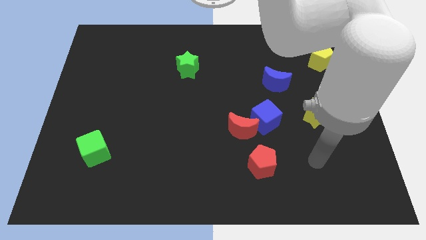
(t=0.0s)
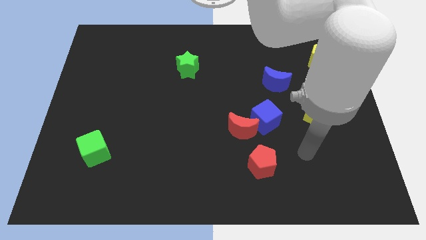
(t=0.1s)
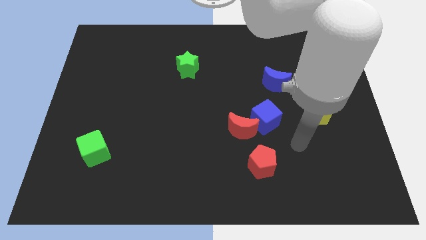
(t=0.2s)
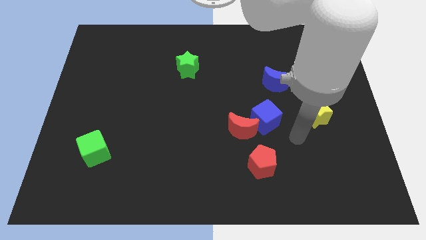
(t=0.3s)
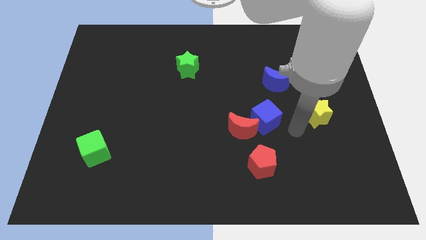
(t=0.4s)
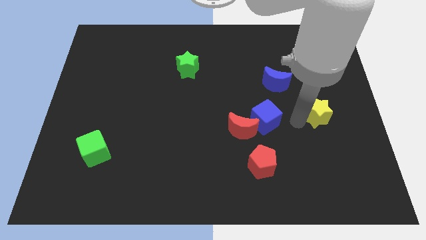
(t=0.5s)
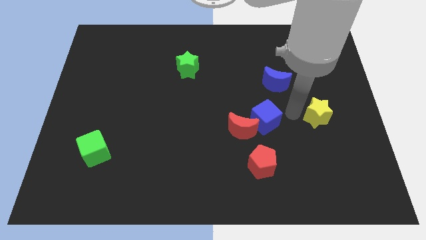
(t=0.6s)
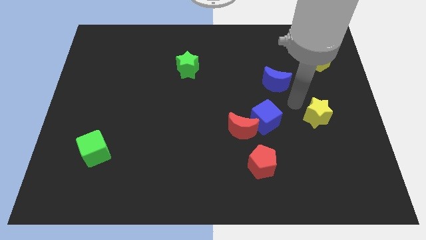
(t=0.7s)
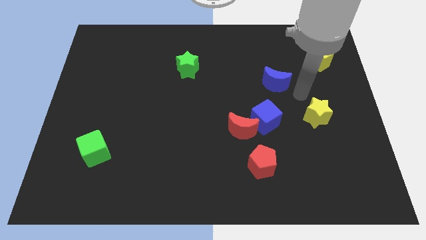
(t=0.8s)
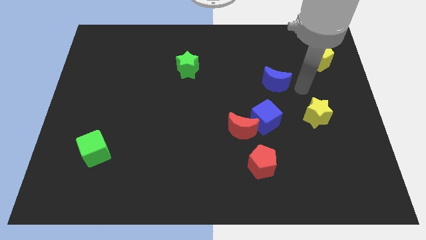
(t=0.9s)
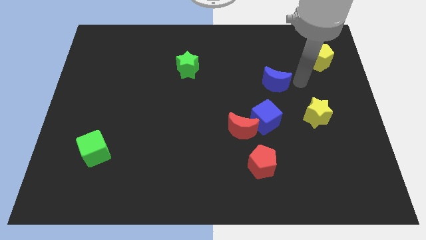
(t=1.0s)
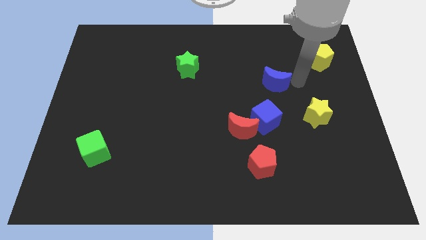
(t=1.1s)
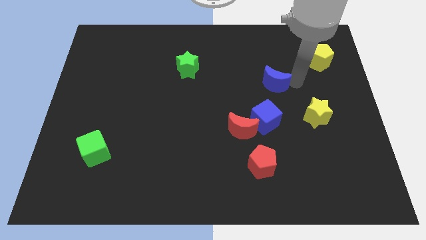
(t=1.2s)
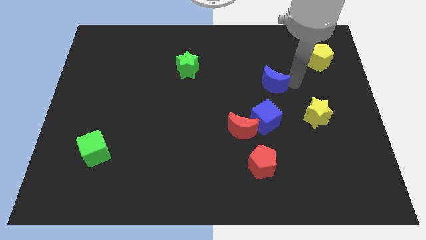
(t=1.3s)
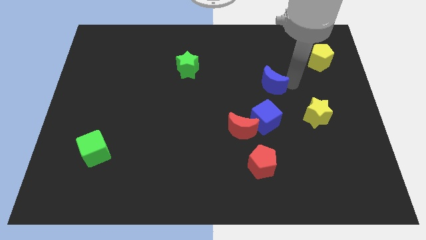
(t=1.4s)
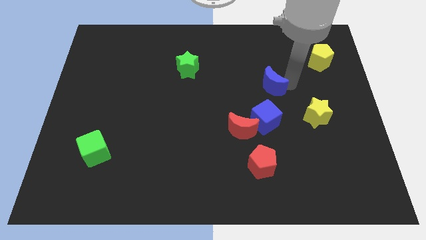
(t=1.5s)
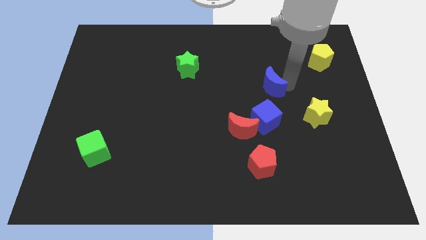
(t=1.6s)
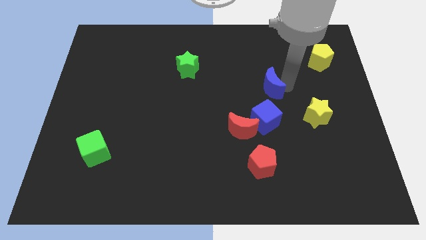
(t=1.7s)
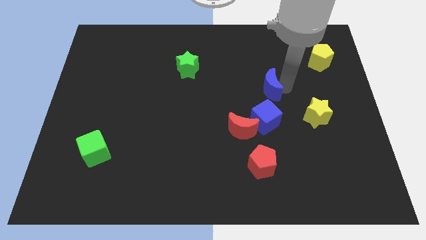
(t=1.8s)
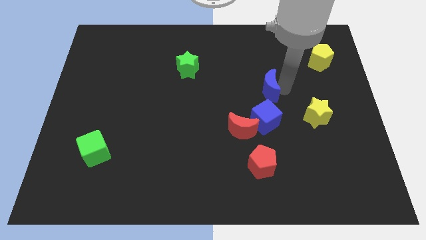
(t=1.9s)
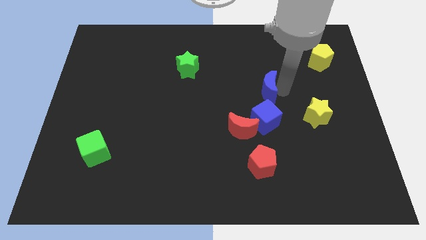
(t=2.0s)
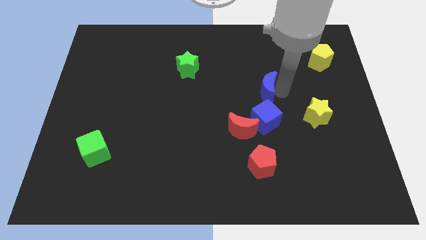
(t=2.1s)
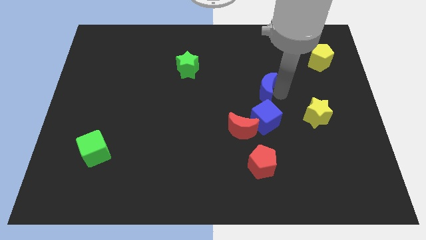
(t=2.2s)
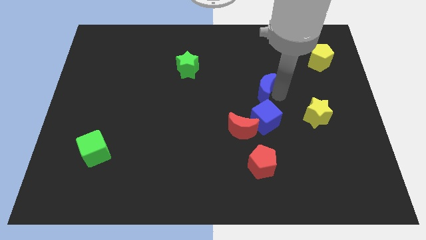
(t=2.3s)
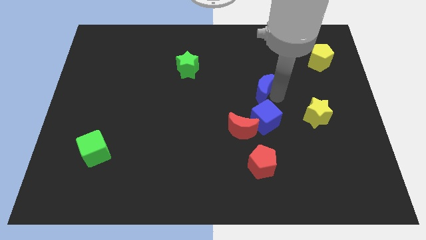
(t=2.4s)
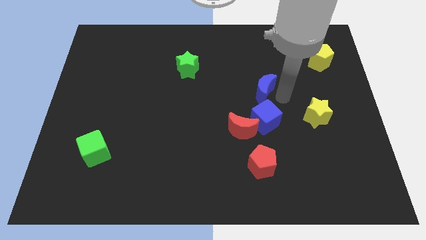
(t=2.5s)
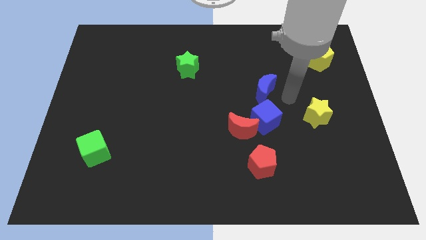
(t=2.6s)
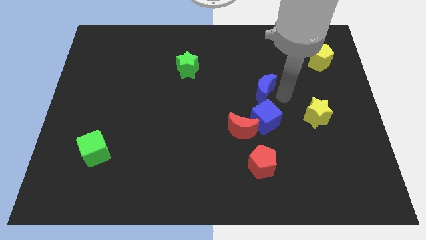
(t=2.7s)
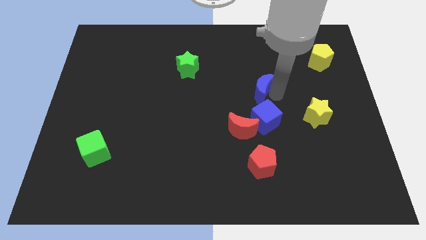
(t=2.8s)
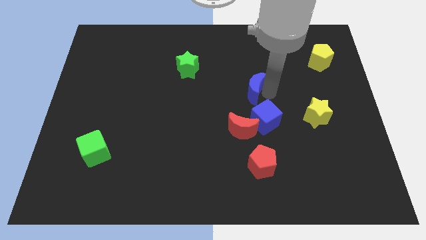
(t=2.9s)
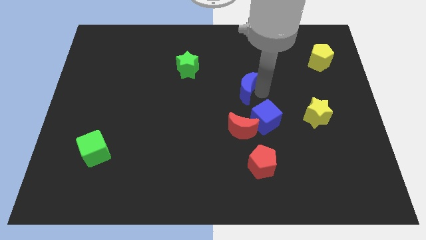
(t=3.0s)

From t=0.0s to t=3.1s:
push the blue moon a bit to the left

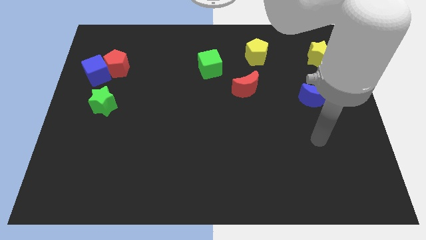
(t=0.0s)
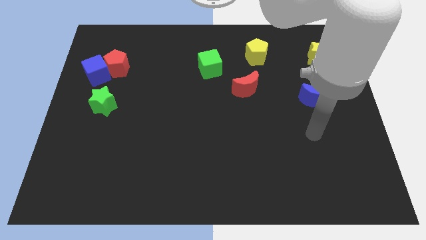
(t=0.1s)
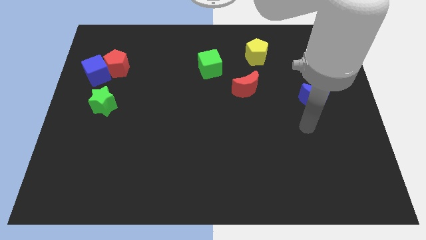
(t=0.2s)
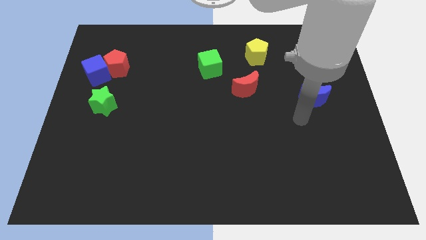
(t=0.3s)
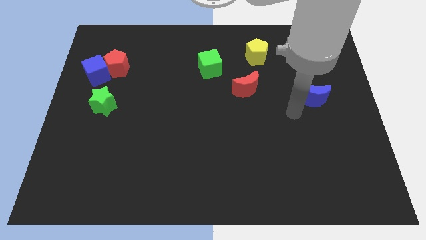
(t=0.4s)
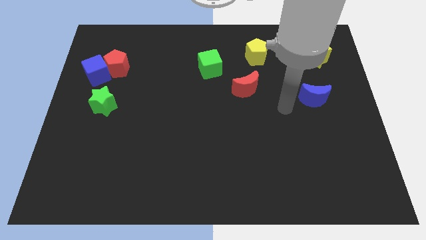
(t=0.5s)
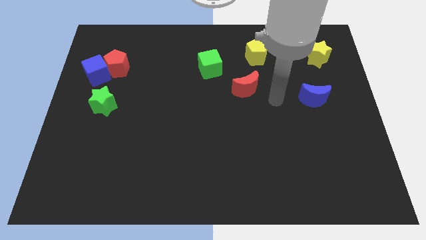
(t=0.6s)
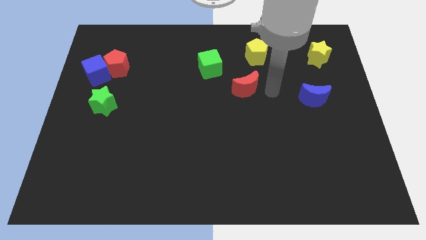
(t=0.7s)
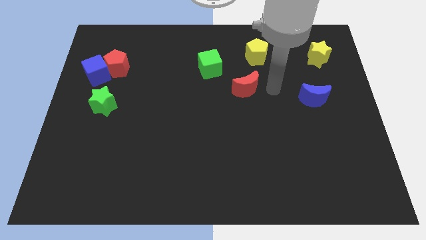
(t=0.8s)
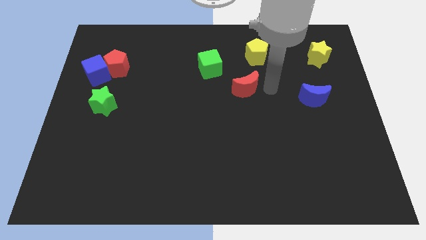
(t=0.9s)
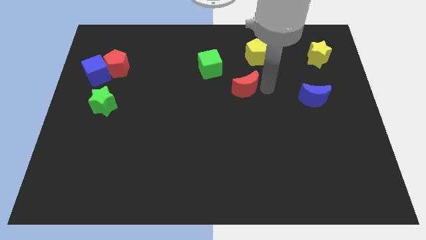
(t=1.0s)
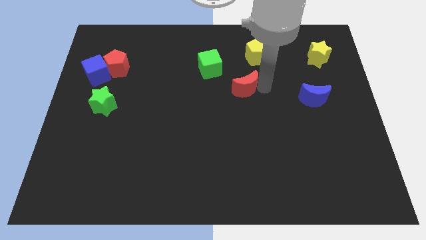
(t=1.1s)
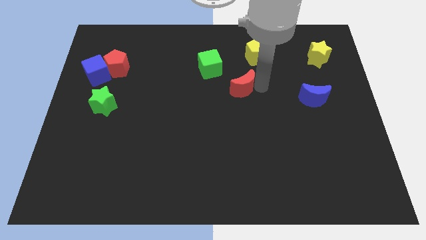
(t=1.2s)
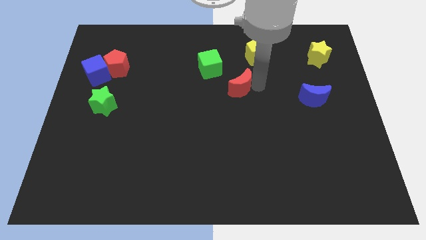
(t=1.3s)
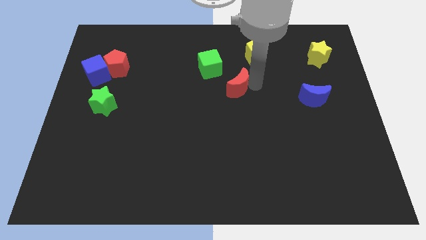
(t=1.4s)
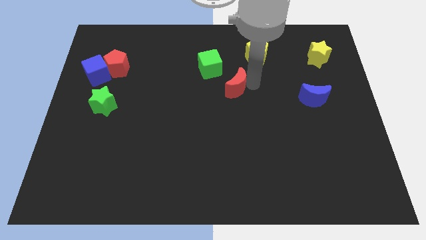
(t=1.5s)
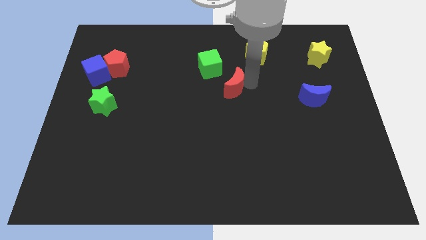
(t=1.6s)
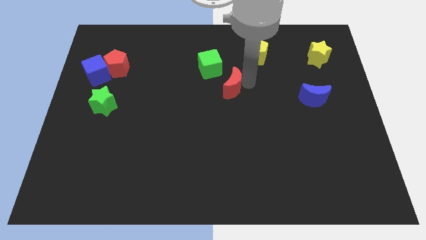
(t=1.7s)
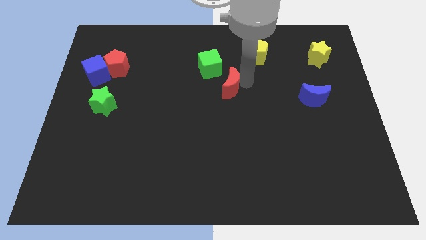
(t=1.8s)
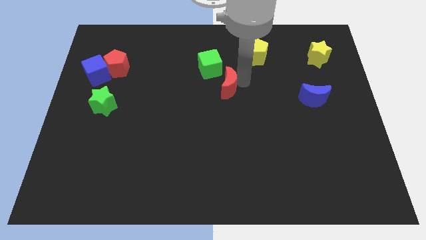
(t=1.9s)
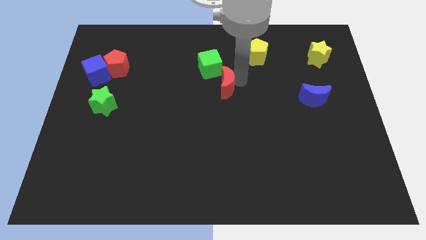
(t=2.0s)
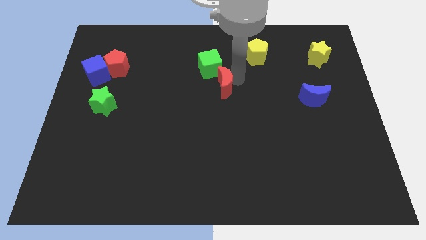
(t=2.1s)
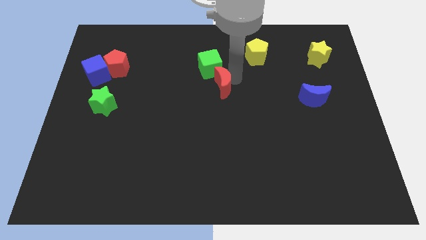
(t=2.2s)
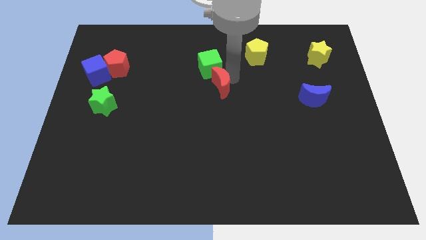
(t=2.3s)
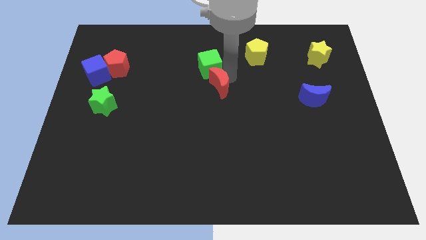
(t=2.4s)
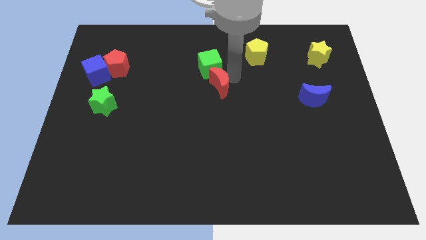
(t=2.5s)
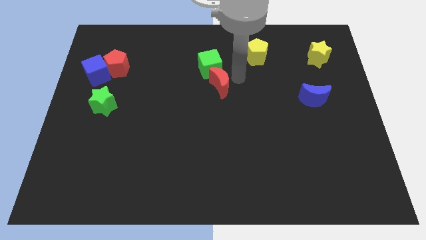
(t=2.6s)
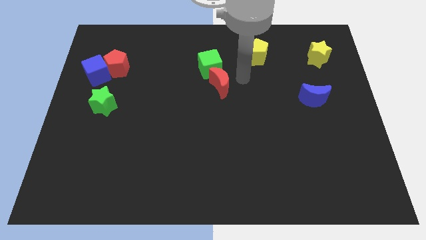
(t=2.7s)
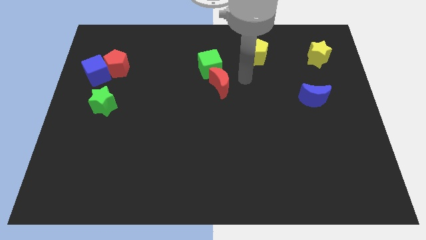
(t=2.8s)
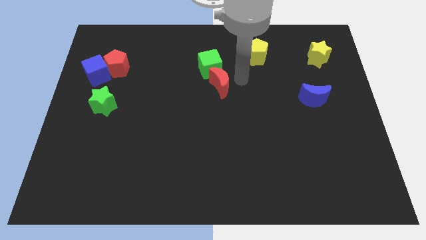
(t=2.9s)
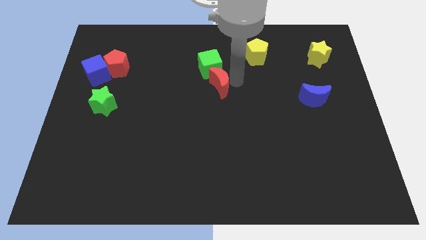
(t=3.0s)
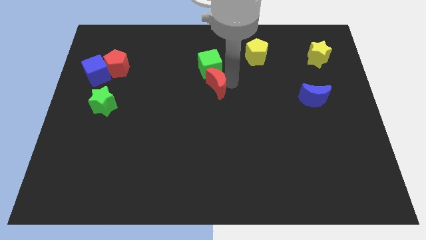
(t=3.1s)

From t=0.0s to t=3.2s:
move the red moon somewhat to the left

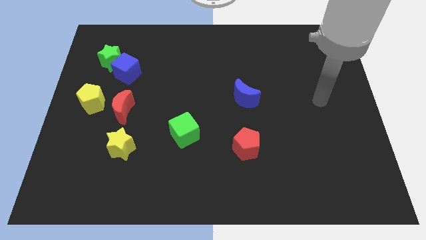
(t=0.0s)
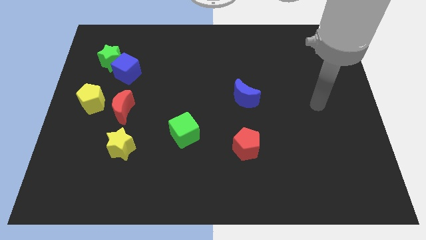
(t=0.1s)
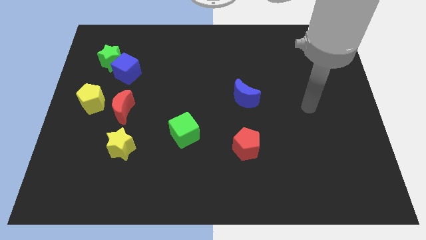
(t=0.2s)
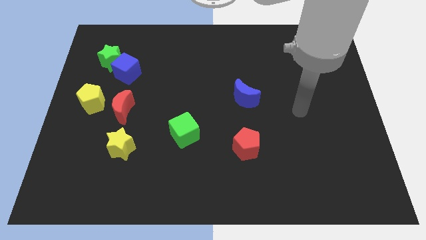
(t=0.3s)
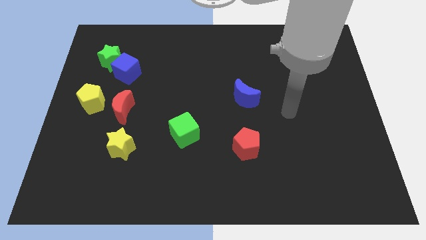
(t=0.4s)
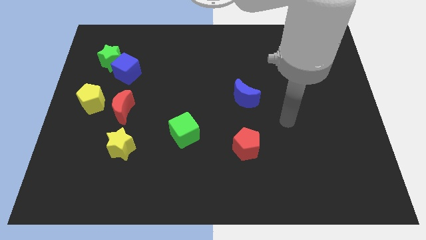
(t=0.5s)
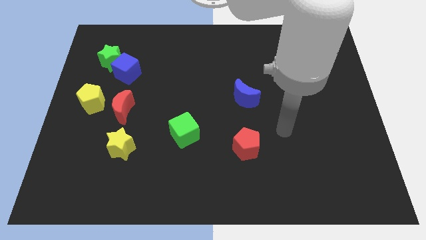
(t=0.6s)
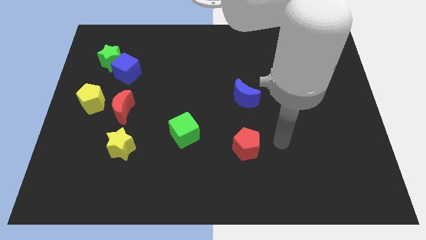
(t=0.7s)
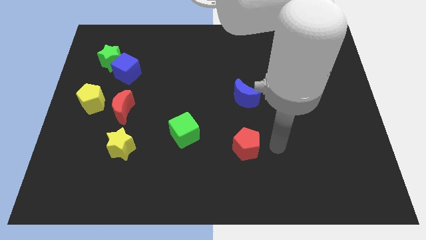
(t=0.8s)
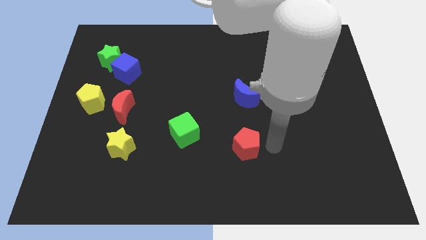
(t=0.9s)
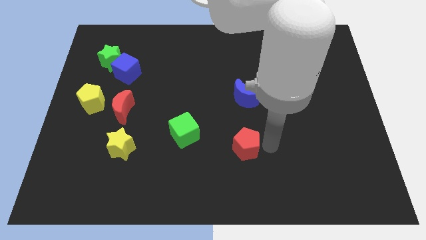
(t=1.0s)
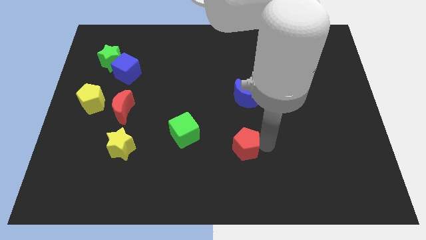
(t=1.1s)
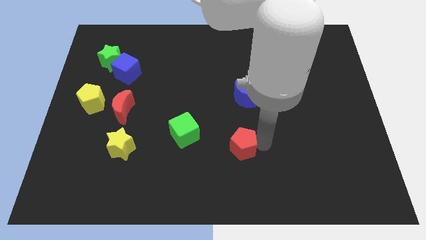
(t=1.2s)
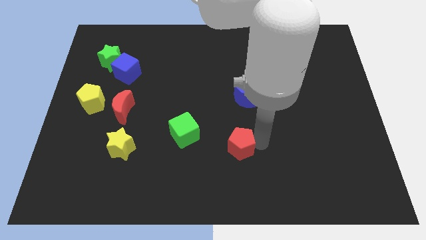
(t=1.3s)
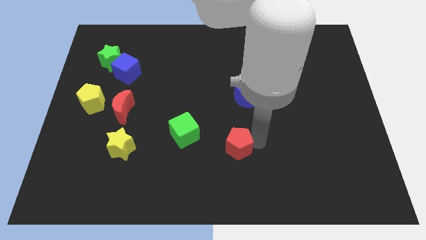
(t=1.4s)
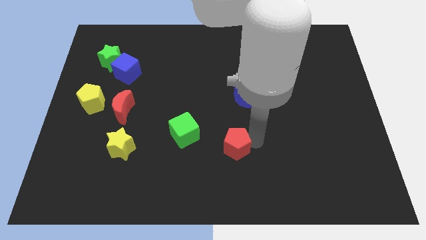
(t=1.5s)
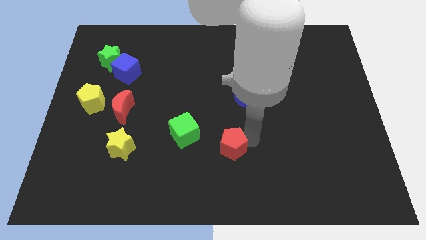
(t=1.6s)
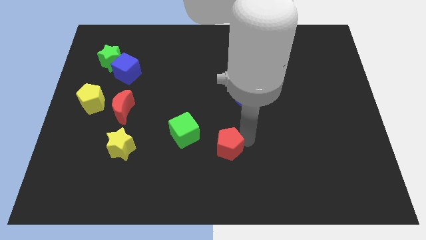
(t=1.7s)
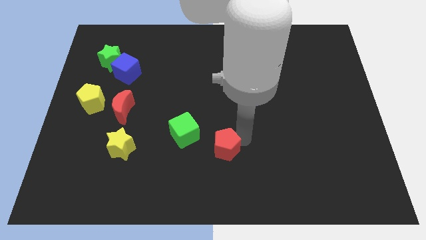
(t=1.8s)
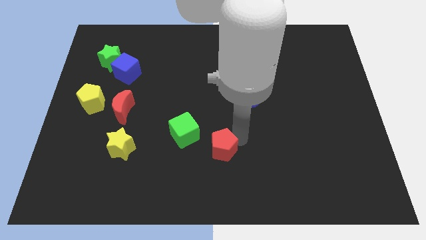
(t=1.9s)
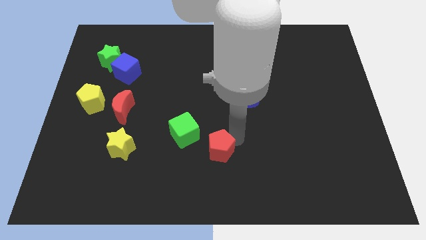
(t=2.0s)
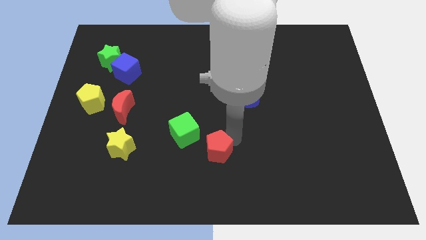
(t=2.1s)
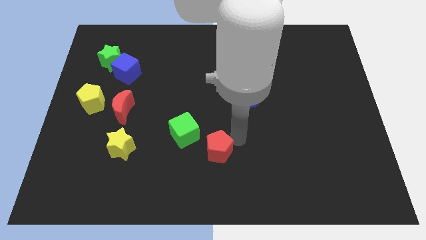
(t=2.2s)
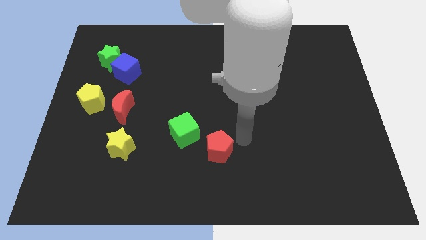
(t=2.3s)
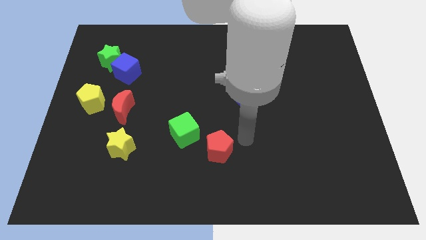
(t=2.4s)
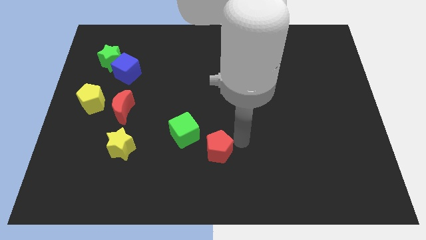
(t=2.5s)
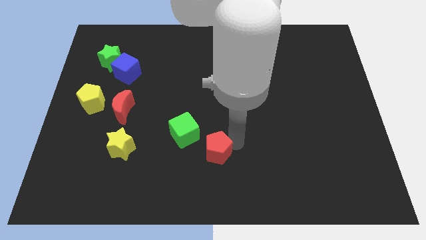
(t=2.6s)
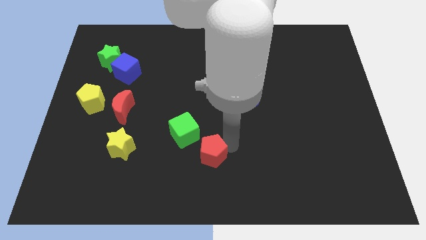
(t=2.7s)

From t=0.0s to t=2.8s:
slightly slide the red pentagon to the left
